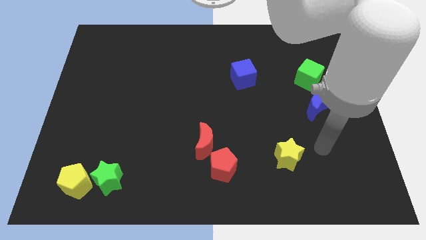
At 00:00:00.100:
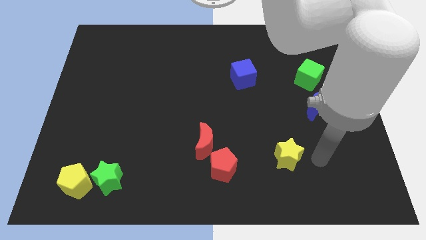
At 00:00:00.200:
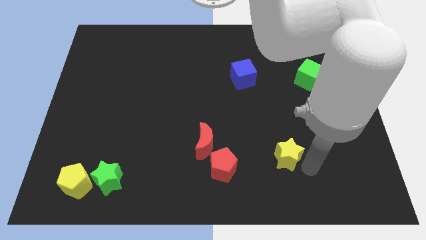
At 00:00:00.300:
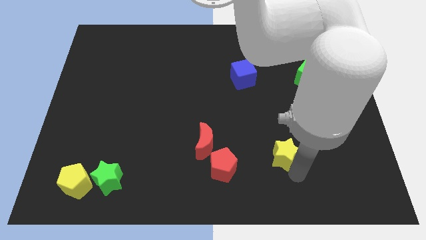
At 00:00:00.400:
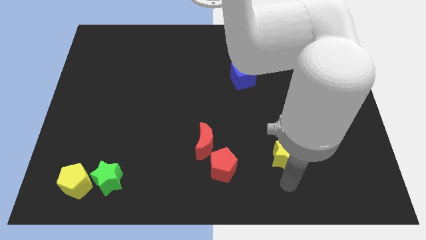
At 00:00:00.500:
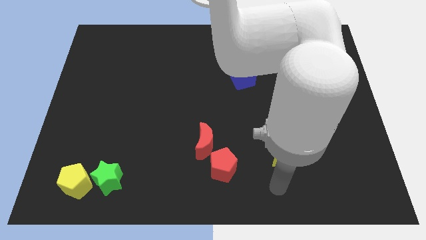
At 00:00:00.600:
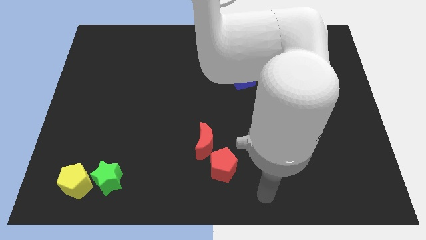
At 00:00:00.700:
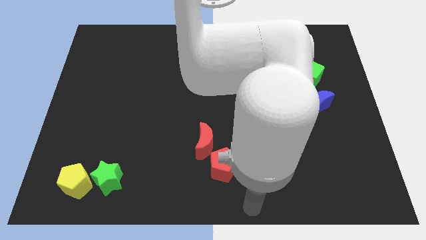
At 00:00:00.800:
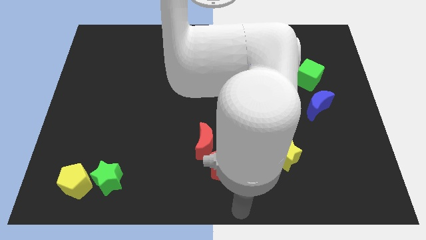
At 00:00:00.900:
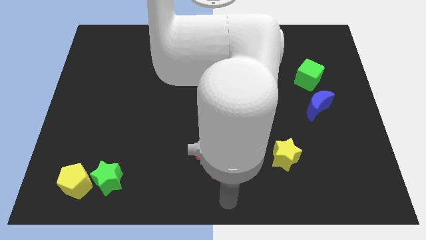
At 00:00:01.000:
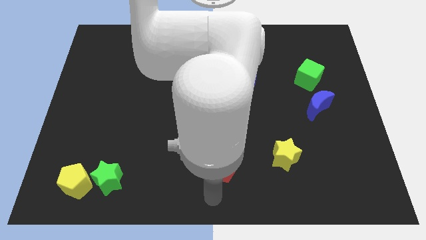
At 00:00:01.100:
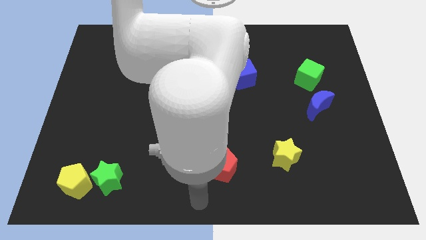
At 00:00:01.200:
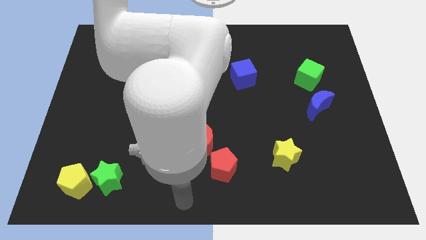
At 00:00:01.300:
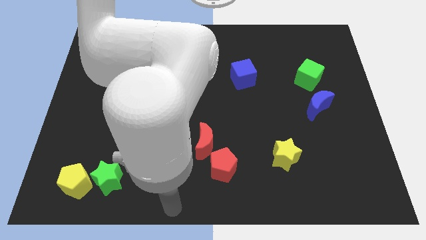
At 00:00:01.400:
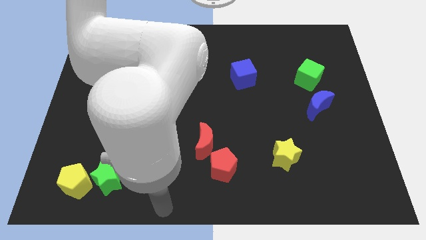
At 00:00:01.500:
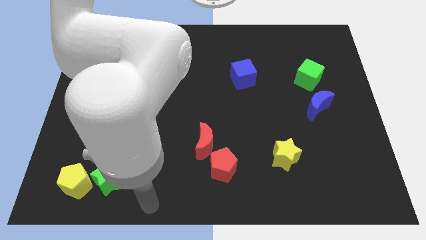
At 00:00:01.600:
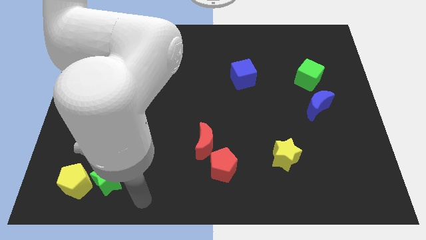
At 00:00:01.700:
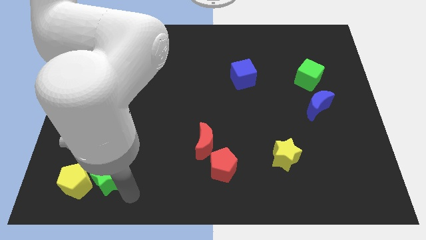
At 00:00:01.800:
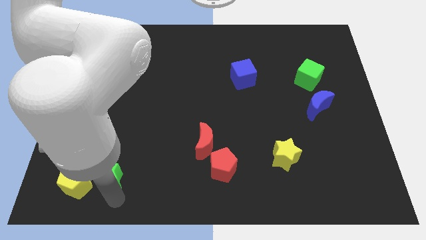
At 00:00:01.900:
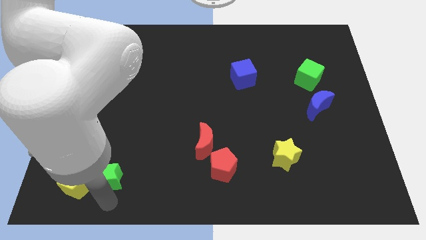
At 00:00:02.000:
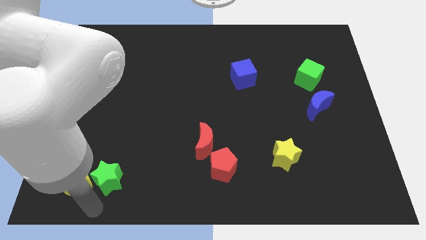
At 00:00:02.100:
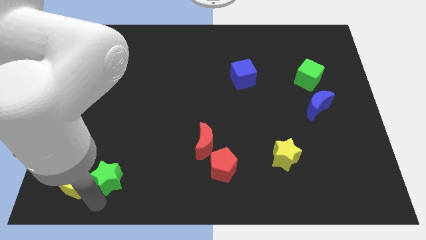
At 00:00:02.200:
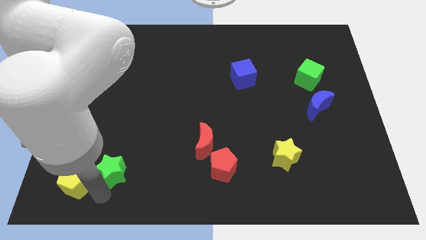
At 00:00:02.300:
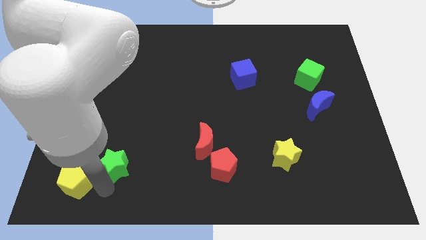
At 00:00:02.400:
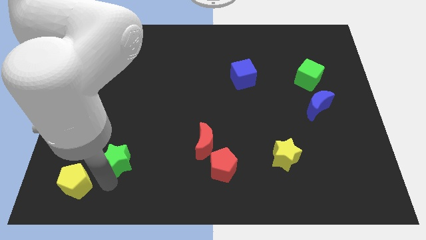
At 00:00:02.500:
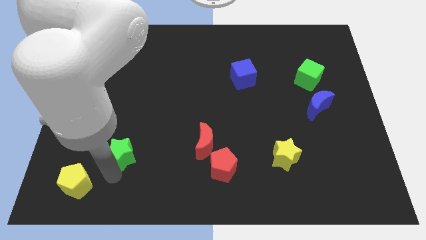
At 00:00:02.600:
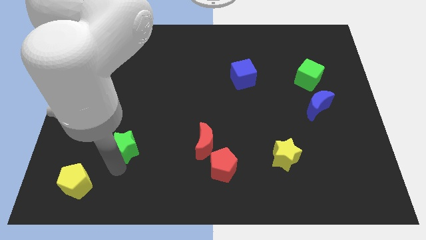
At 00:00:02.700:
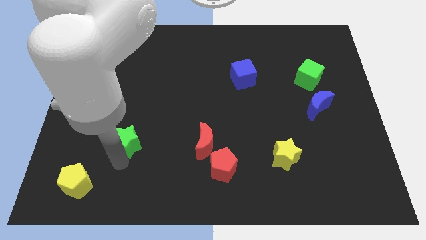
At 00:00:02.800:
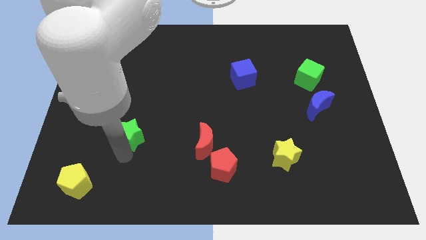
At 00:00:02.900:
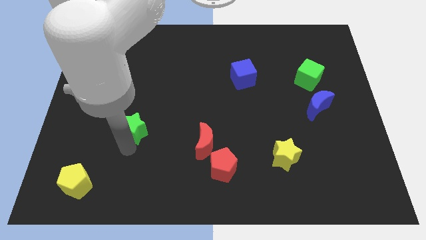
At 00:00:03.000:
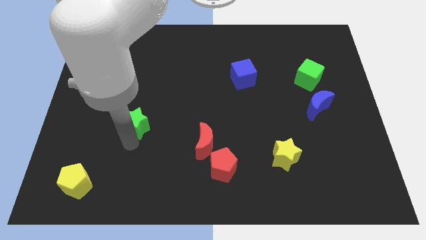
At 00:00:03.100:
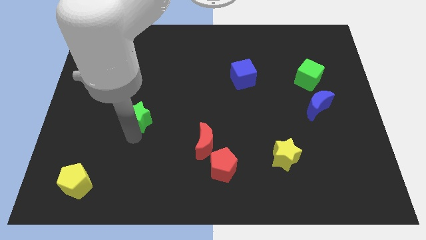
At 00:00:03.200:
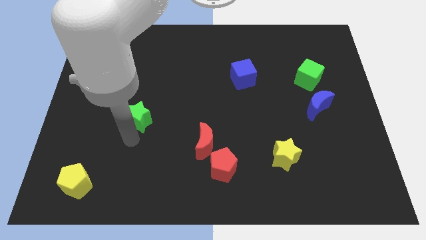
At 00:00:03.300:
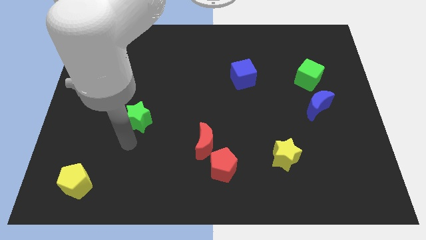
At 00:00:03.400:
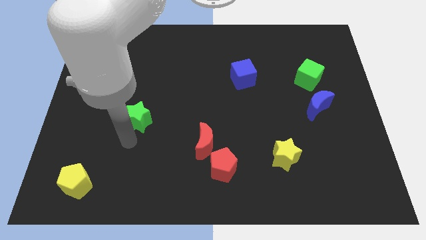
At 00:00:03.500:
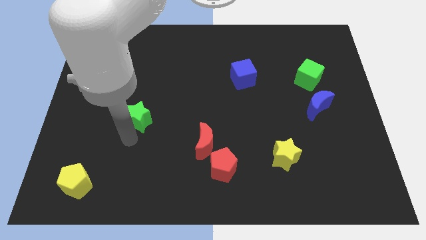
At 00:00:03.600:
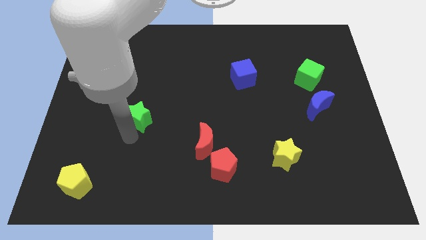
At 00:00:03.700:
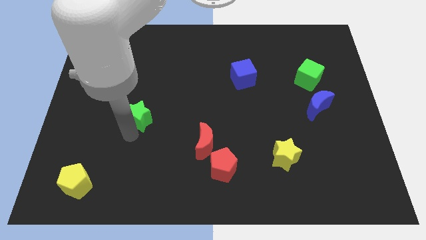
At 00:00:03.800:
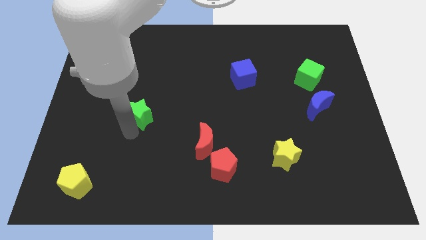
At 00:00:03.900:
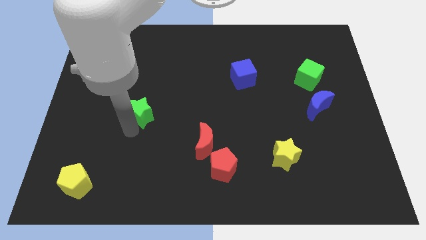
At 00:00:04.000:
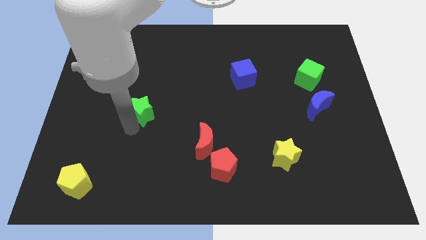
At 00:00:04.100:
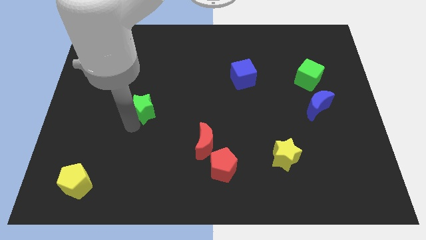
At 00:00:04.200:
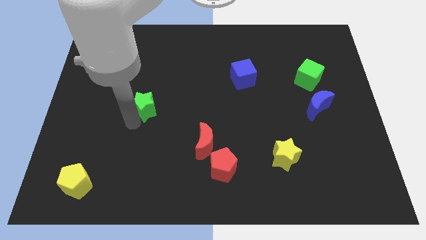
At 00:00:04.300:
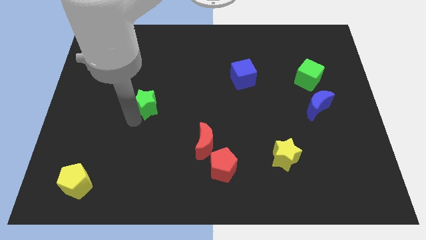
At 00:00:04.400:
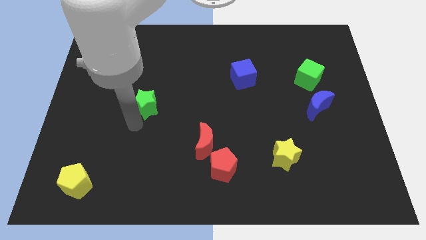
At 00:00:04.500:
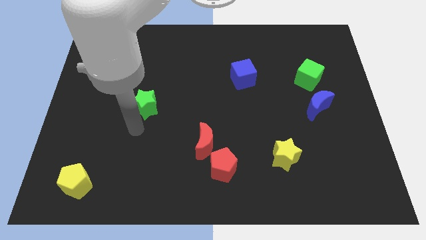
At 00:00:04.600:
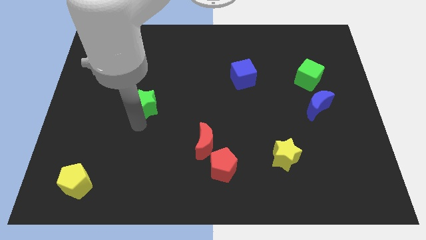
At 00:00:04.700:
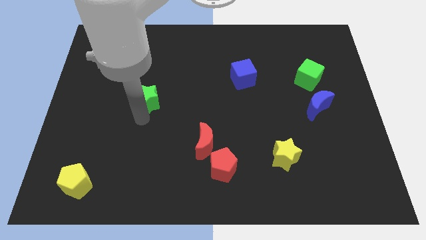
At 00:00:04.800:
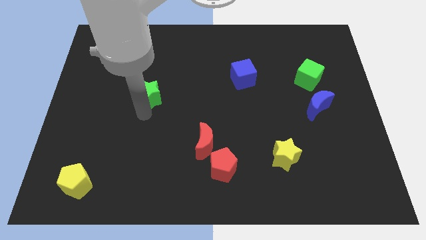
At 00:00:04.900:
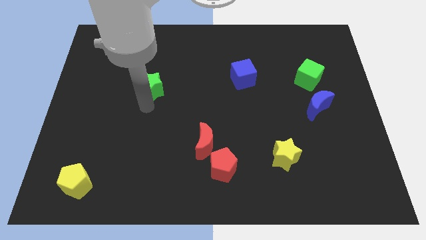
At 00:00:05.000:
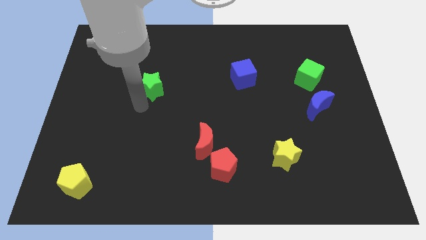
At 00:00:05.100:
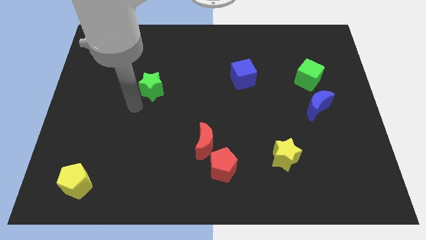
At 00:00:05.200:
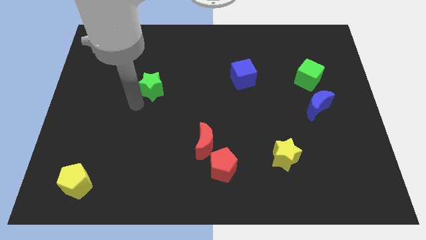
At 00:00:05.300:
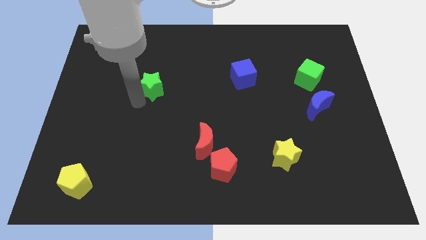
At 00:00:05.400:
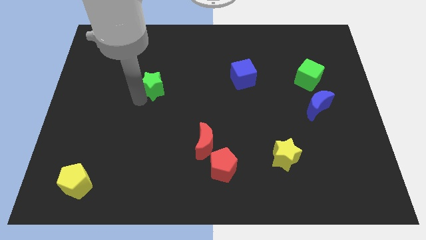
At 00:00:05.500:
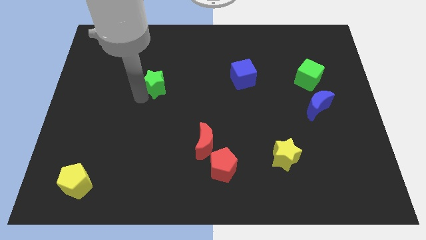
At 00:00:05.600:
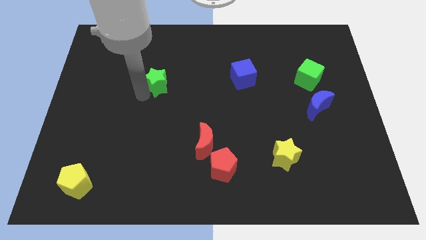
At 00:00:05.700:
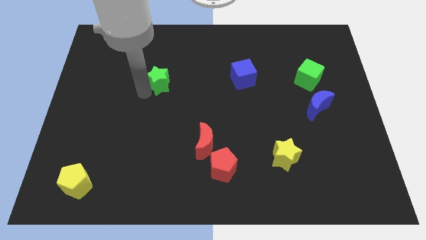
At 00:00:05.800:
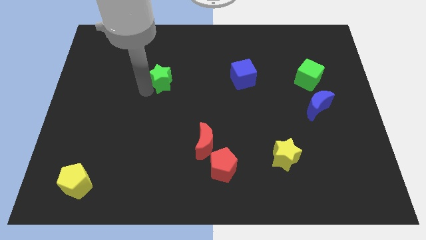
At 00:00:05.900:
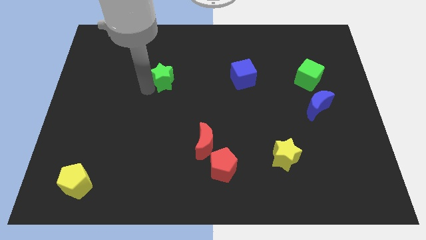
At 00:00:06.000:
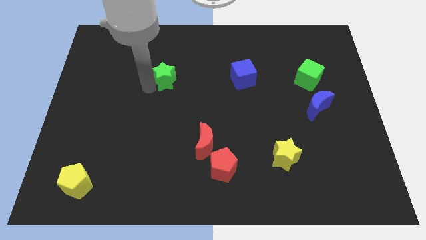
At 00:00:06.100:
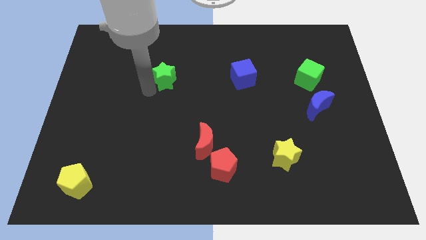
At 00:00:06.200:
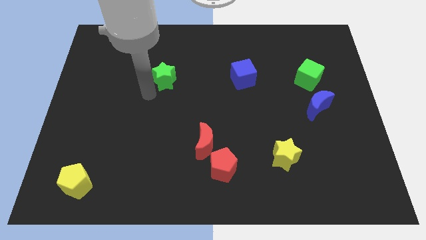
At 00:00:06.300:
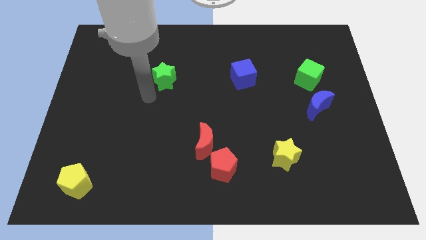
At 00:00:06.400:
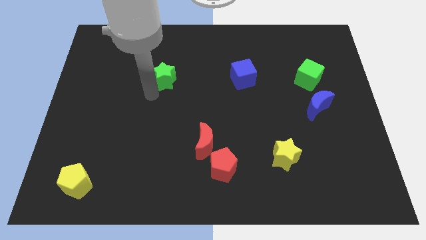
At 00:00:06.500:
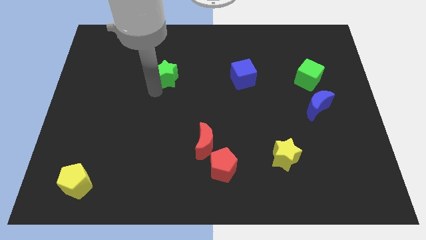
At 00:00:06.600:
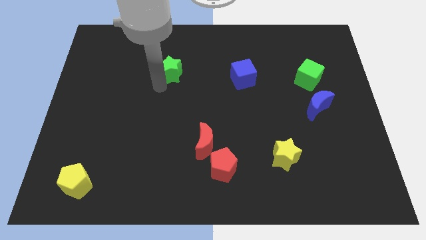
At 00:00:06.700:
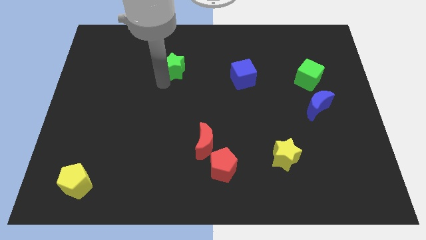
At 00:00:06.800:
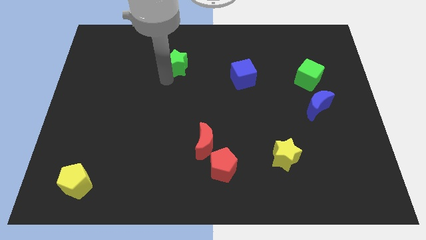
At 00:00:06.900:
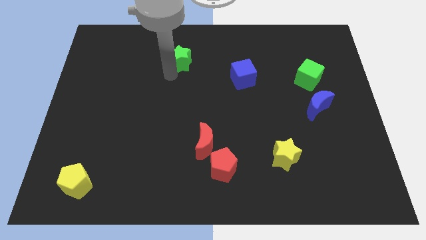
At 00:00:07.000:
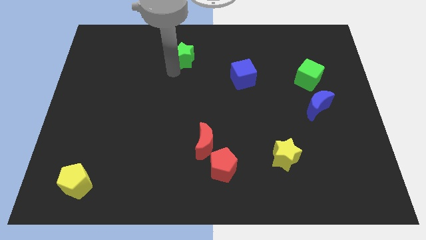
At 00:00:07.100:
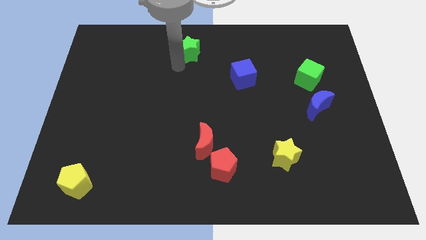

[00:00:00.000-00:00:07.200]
push the green star to the top side
